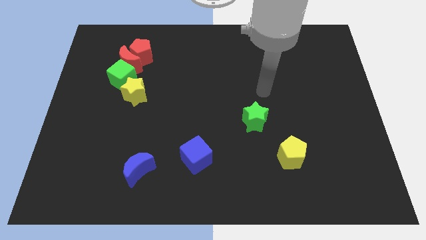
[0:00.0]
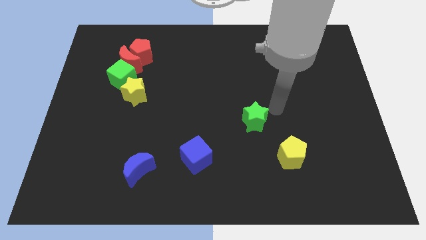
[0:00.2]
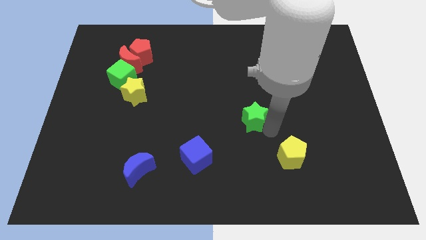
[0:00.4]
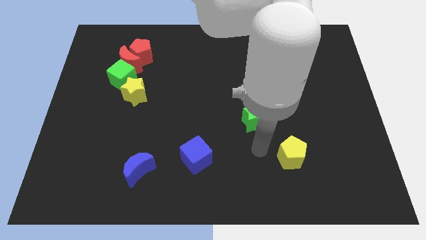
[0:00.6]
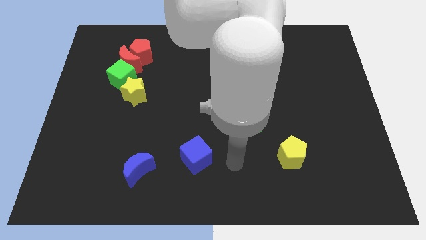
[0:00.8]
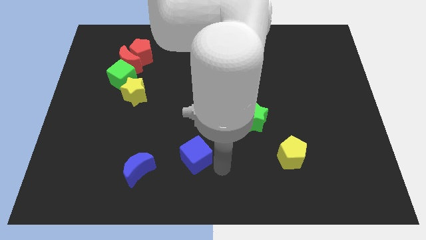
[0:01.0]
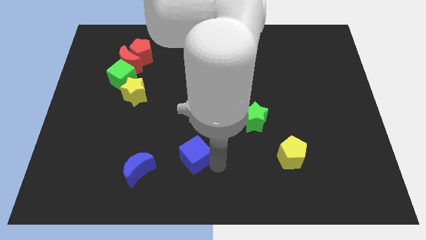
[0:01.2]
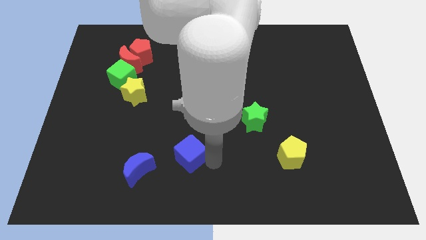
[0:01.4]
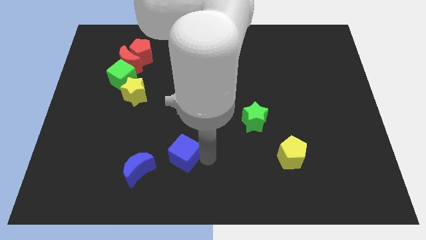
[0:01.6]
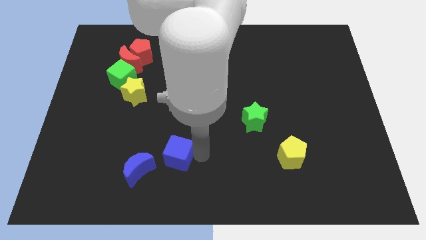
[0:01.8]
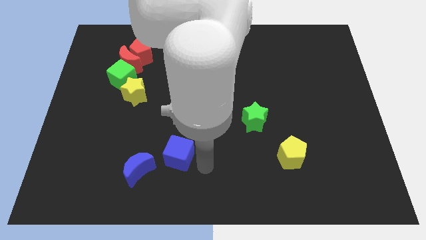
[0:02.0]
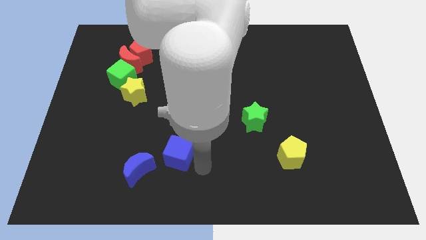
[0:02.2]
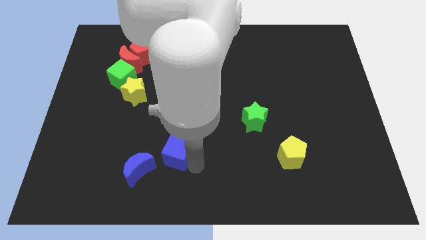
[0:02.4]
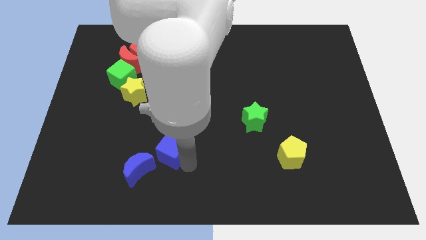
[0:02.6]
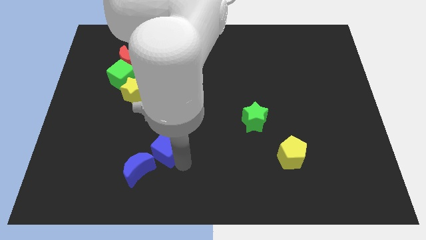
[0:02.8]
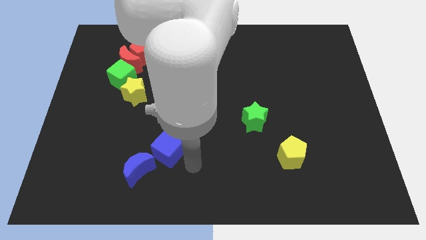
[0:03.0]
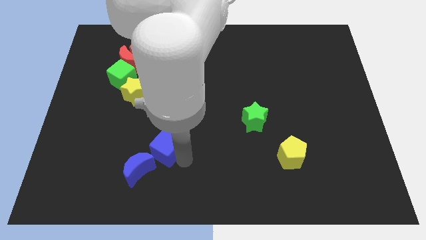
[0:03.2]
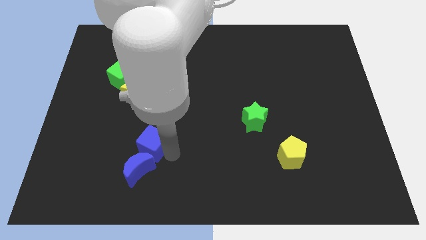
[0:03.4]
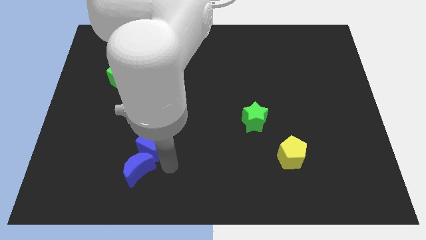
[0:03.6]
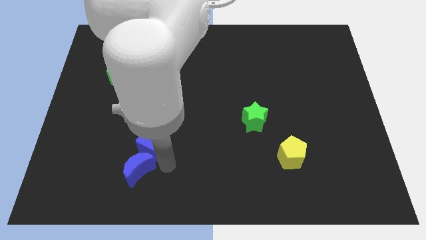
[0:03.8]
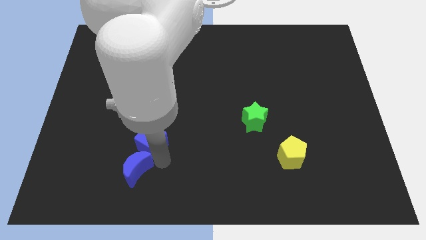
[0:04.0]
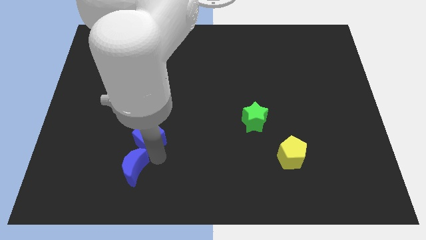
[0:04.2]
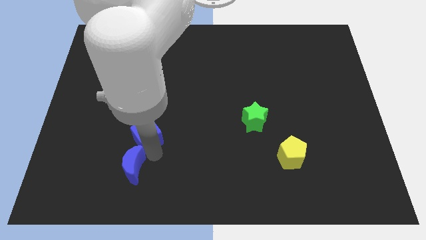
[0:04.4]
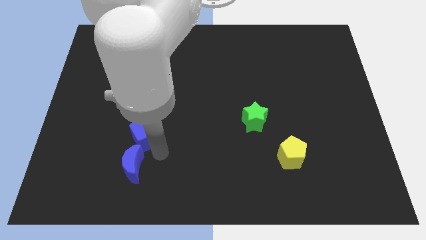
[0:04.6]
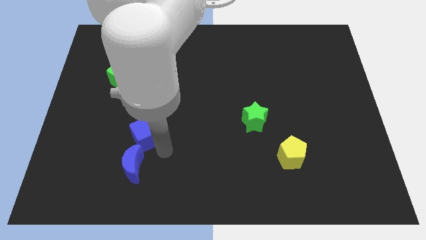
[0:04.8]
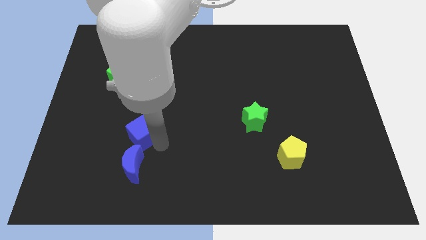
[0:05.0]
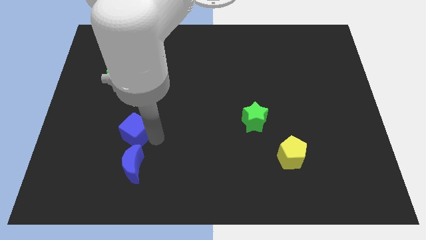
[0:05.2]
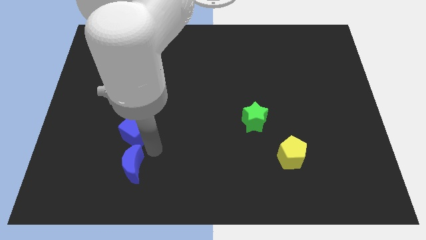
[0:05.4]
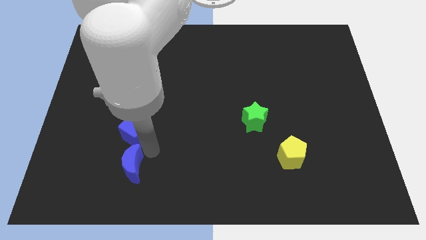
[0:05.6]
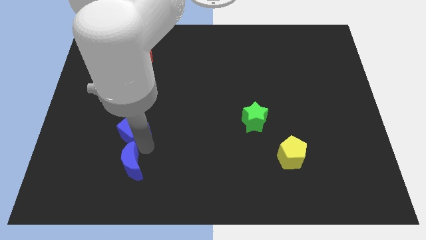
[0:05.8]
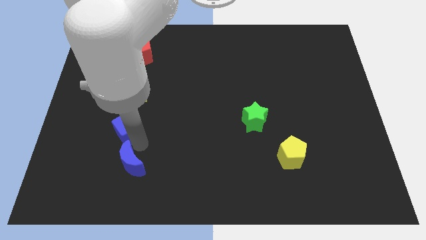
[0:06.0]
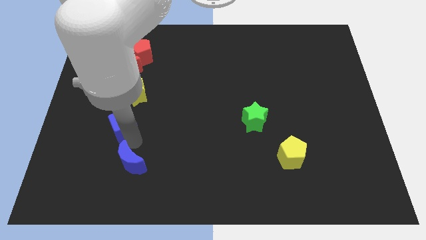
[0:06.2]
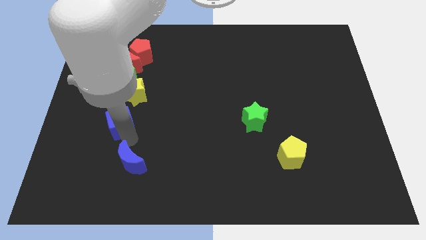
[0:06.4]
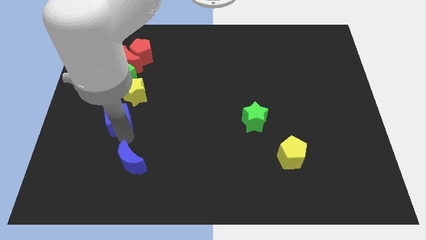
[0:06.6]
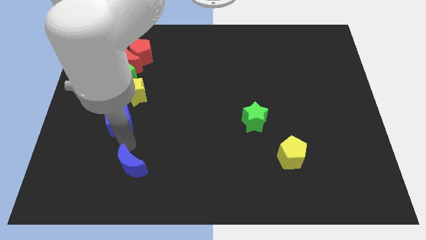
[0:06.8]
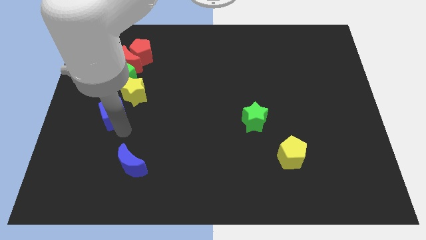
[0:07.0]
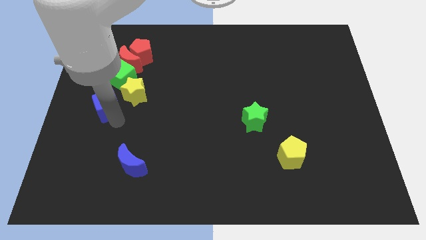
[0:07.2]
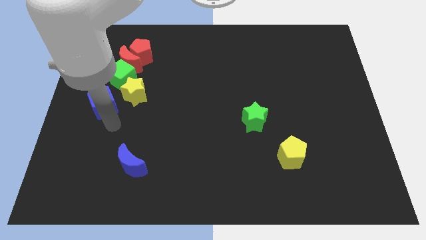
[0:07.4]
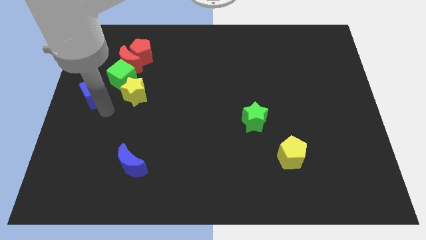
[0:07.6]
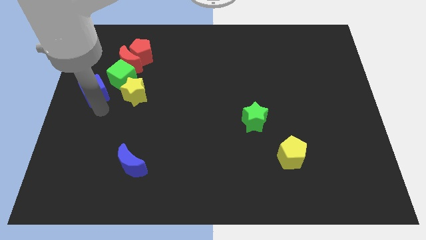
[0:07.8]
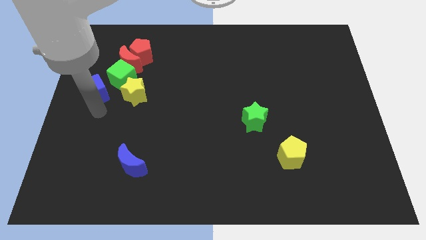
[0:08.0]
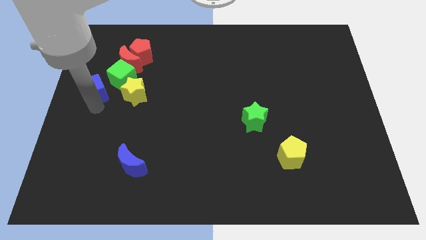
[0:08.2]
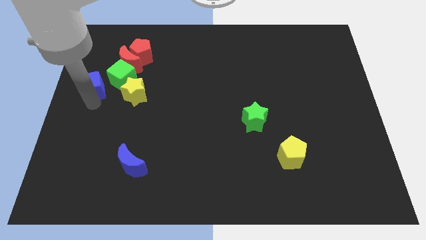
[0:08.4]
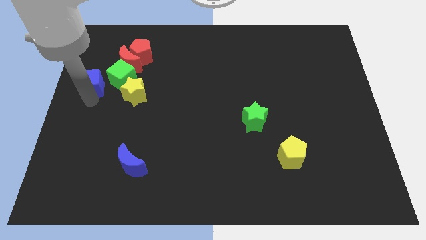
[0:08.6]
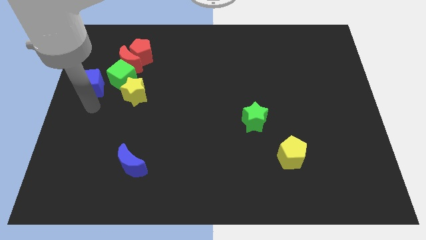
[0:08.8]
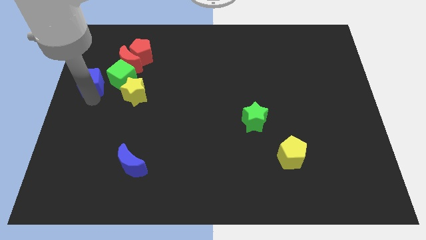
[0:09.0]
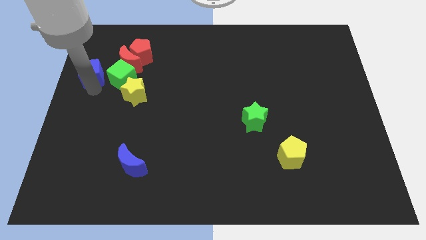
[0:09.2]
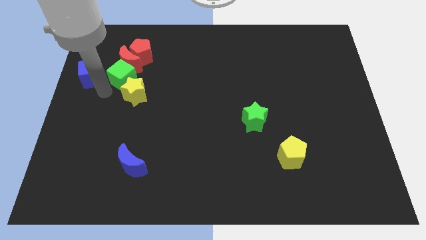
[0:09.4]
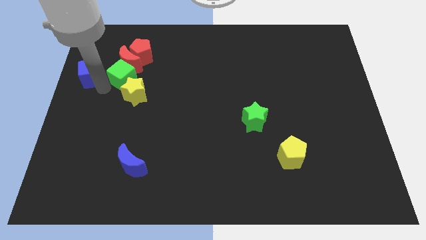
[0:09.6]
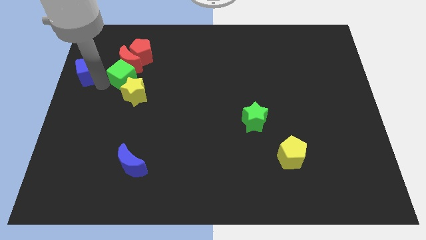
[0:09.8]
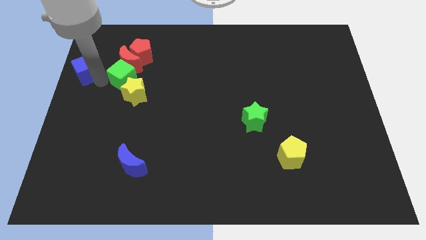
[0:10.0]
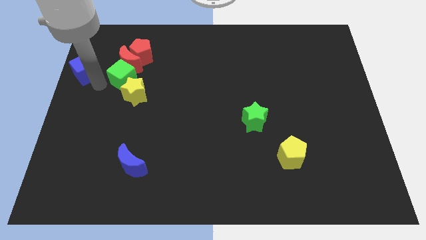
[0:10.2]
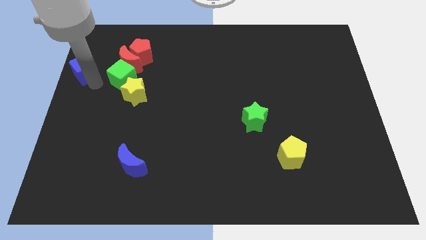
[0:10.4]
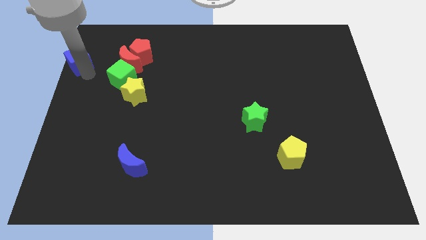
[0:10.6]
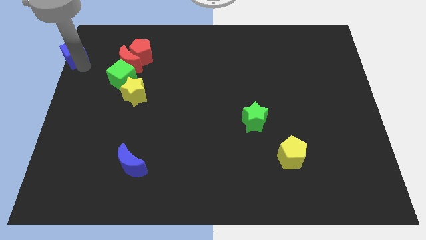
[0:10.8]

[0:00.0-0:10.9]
slide the blue cube to the top left of the board

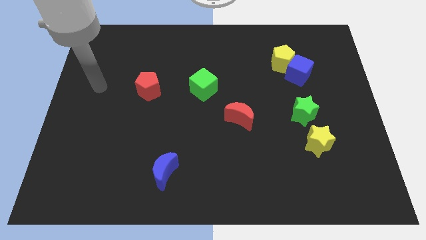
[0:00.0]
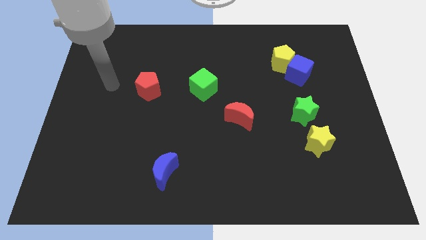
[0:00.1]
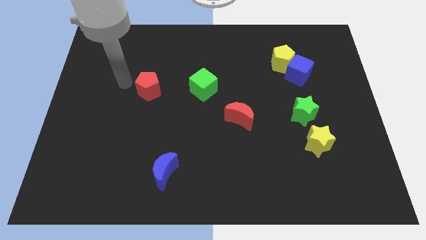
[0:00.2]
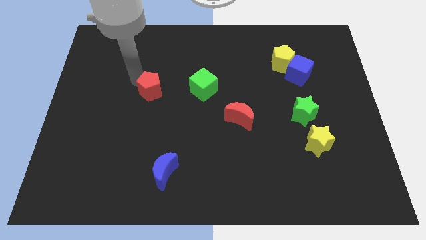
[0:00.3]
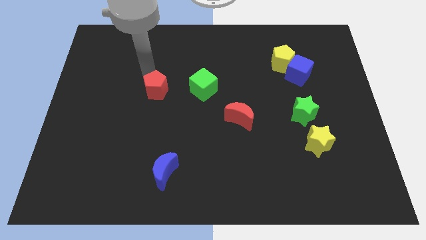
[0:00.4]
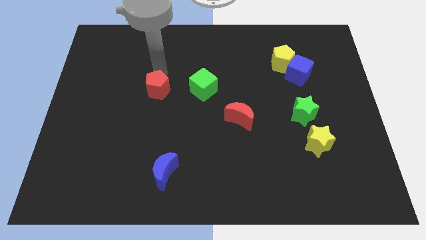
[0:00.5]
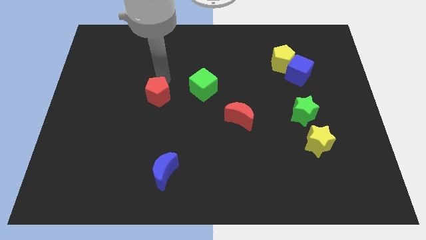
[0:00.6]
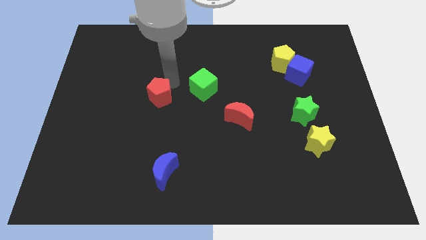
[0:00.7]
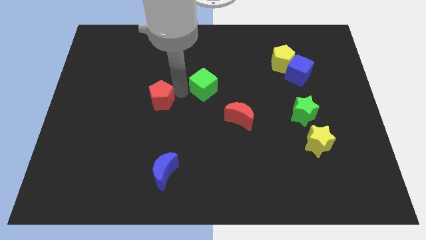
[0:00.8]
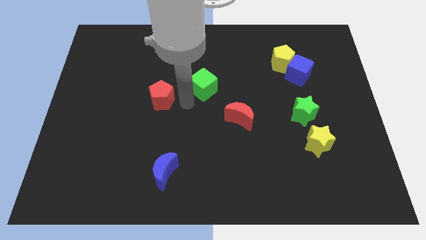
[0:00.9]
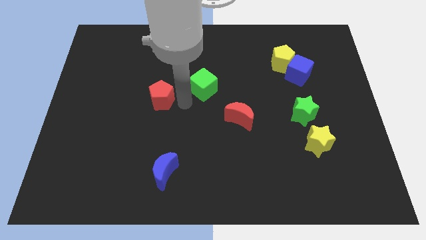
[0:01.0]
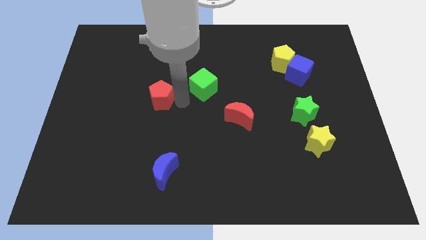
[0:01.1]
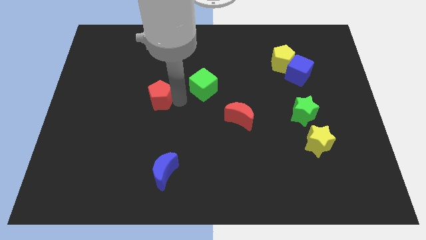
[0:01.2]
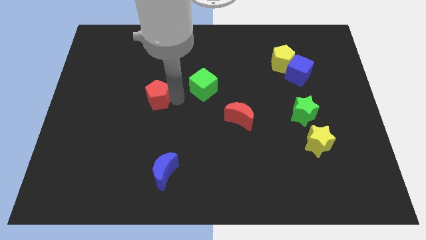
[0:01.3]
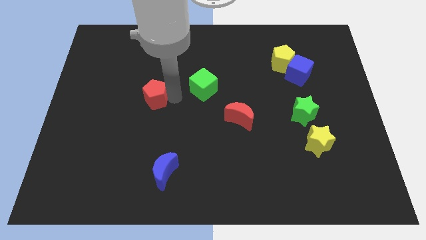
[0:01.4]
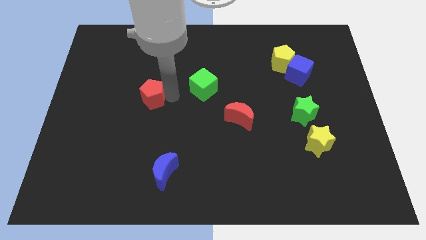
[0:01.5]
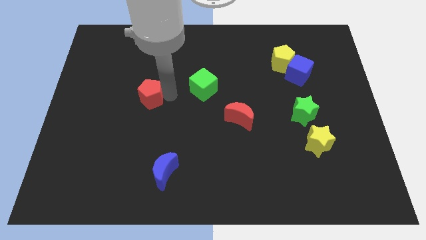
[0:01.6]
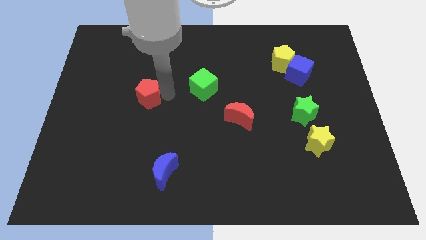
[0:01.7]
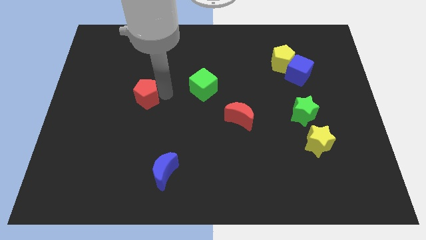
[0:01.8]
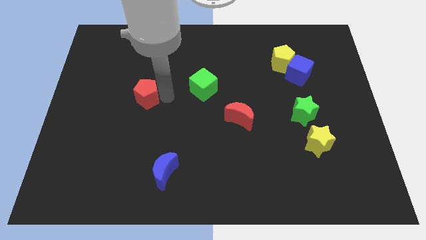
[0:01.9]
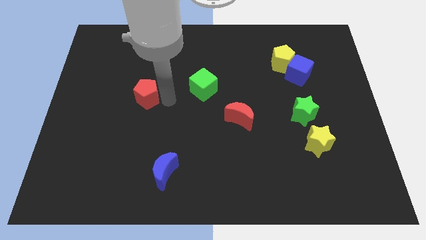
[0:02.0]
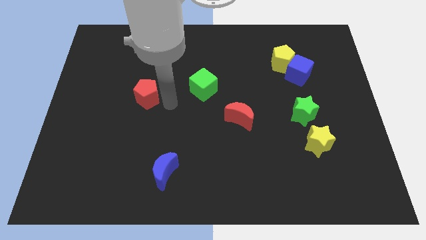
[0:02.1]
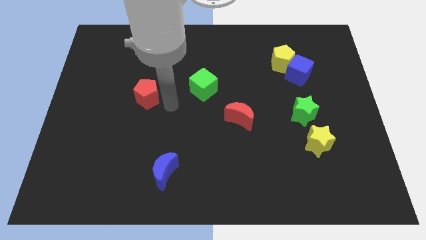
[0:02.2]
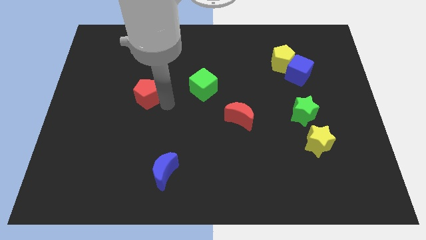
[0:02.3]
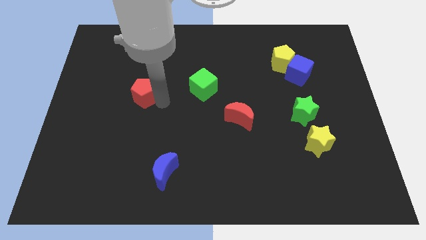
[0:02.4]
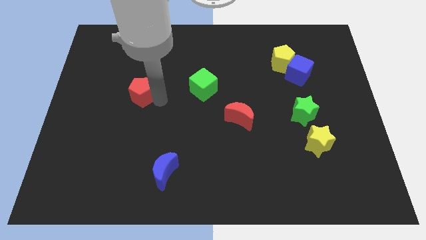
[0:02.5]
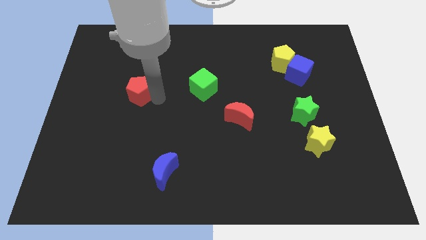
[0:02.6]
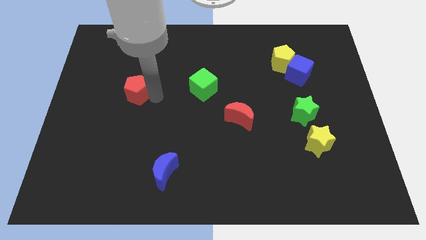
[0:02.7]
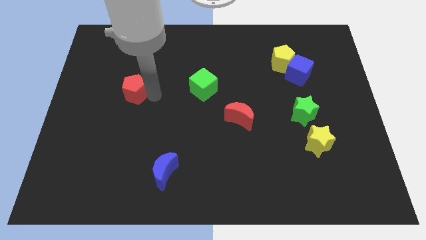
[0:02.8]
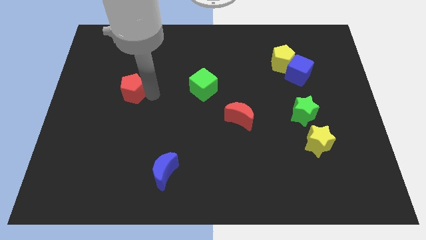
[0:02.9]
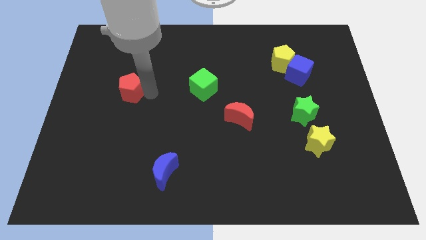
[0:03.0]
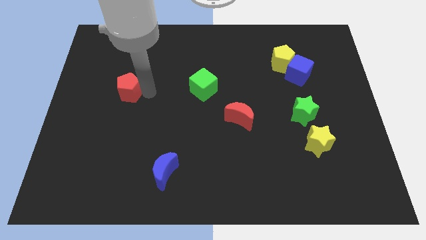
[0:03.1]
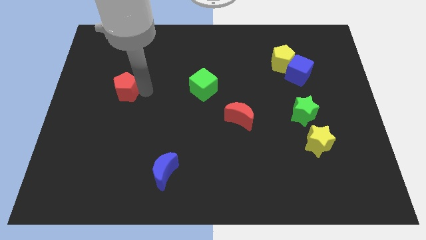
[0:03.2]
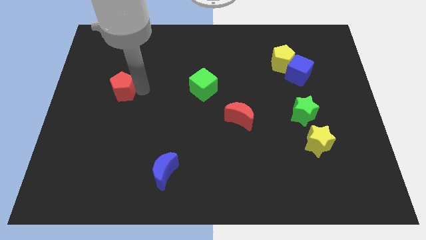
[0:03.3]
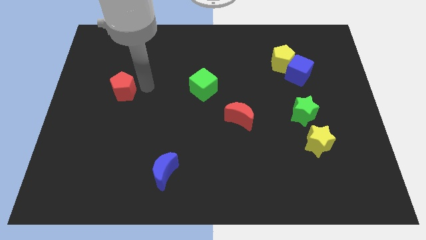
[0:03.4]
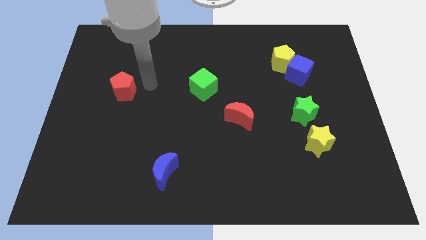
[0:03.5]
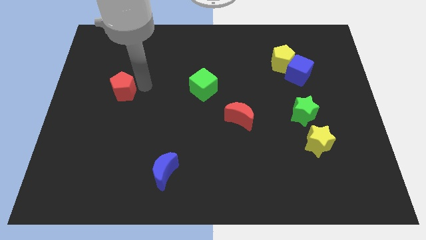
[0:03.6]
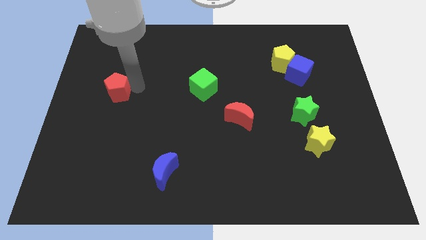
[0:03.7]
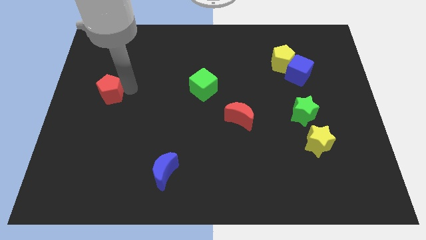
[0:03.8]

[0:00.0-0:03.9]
move the red pentagon to the center left
